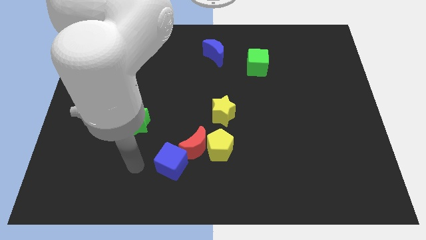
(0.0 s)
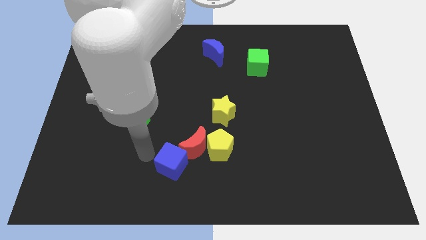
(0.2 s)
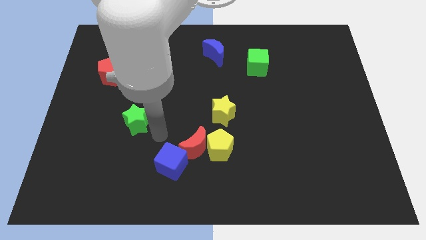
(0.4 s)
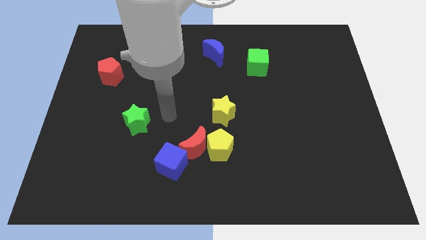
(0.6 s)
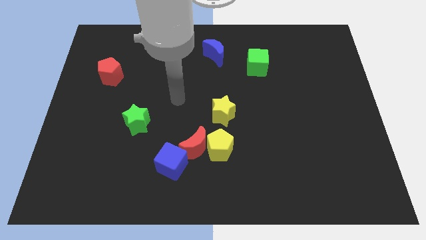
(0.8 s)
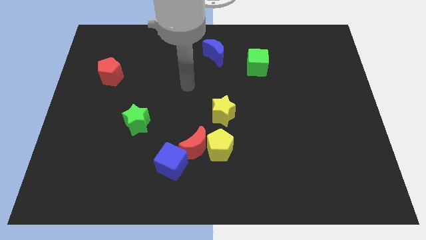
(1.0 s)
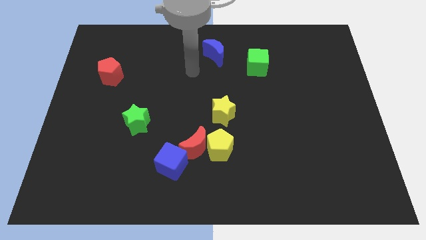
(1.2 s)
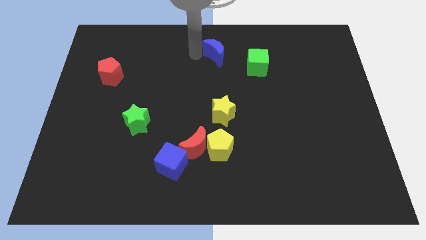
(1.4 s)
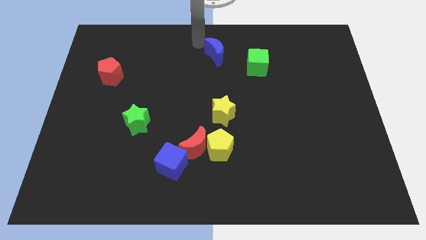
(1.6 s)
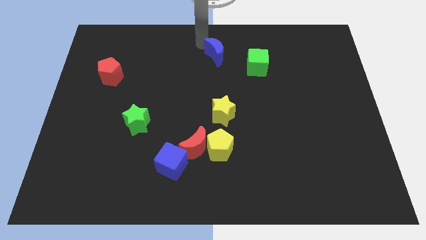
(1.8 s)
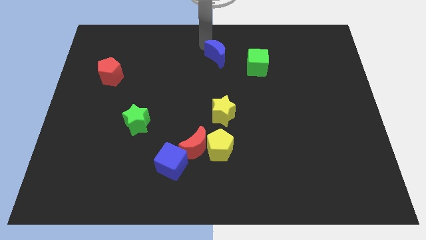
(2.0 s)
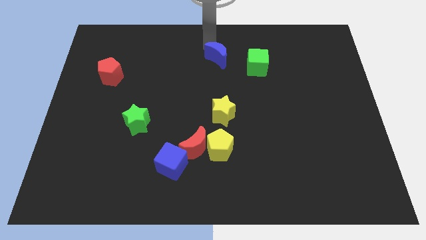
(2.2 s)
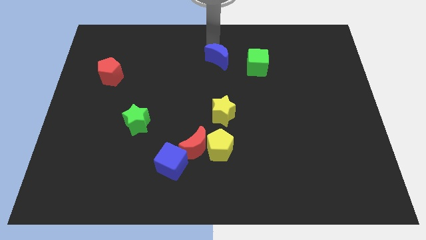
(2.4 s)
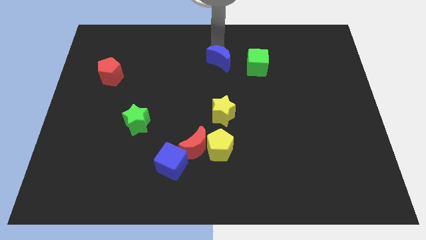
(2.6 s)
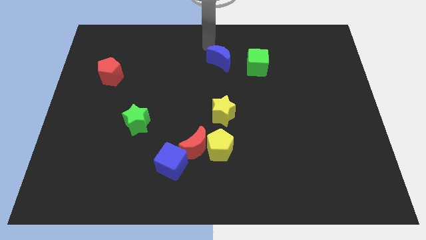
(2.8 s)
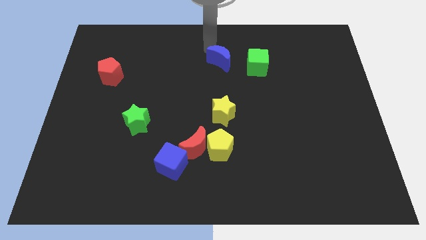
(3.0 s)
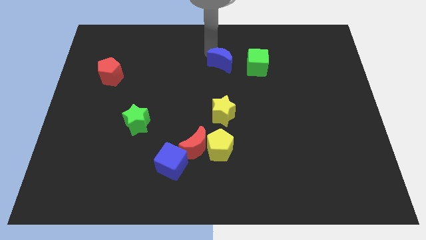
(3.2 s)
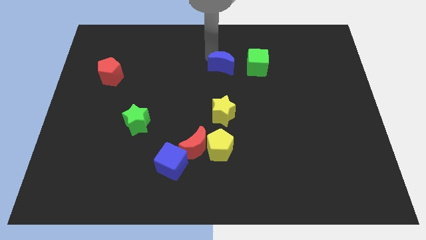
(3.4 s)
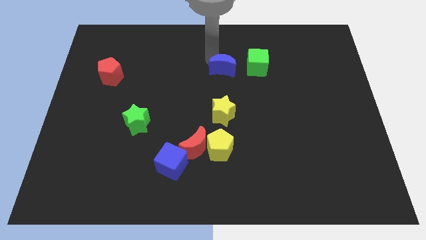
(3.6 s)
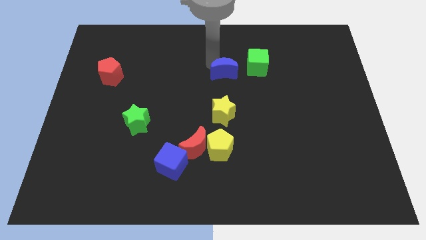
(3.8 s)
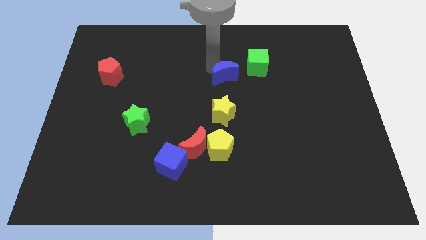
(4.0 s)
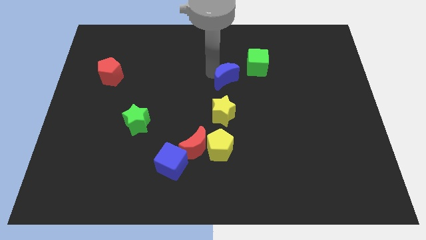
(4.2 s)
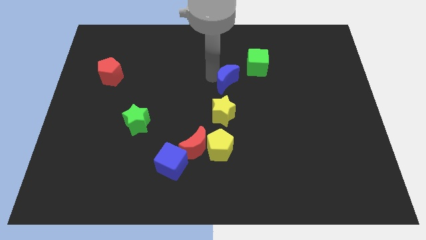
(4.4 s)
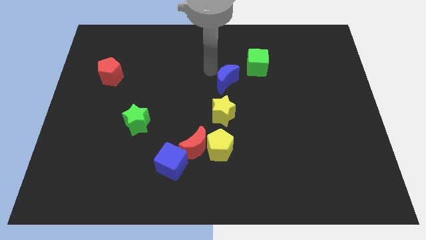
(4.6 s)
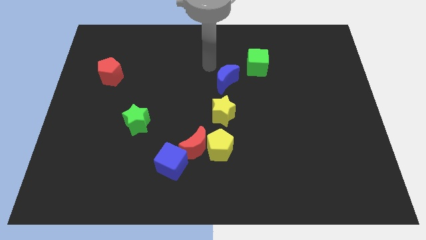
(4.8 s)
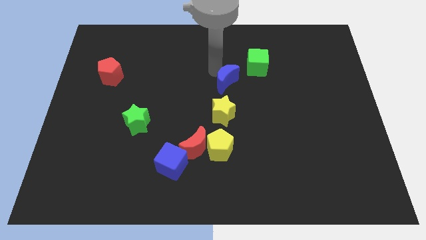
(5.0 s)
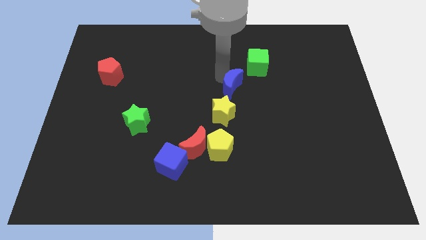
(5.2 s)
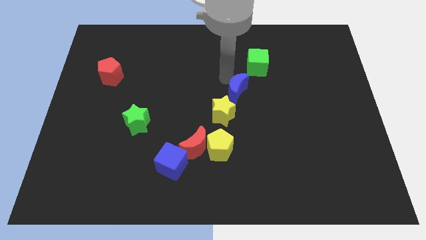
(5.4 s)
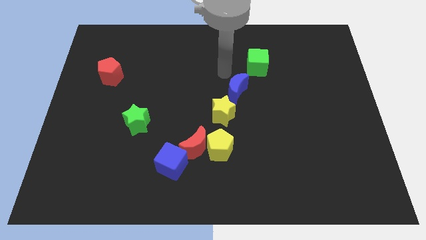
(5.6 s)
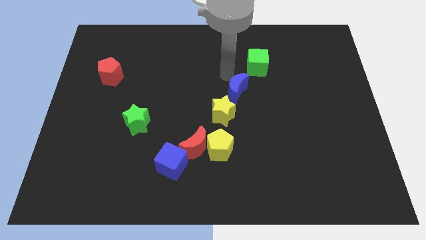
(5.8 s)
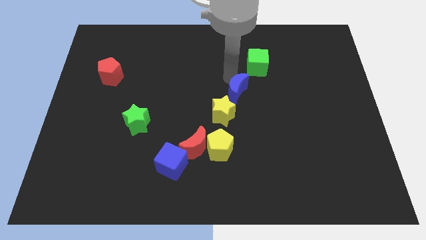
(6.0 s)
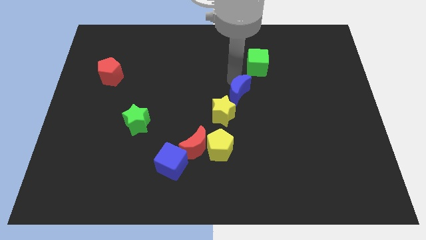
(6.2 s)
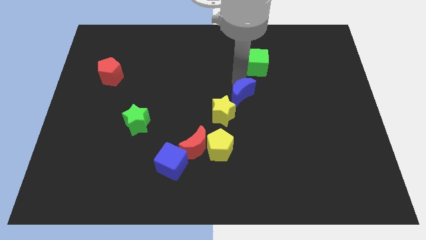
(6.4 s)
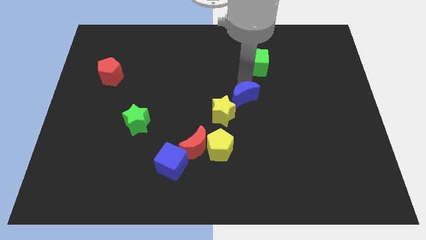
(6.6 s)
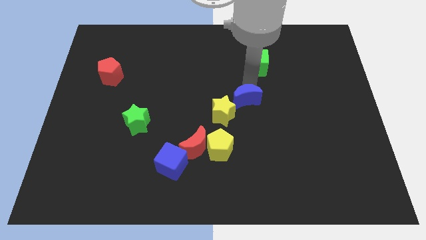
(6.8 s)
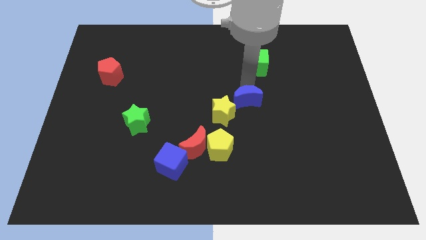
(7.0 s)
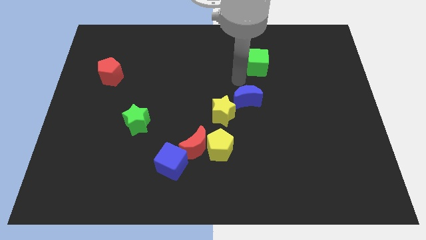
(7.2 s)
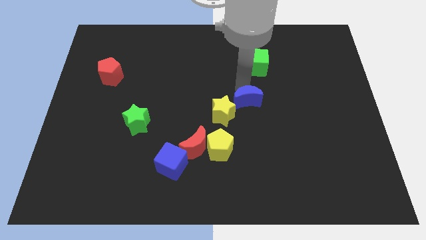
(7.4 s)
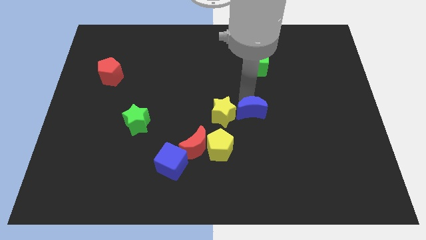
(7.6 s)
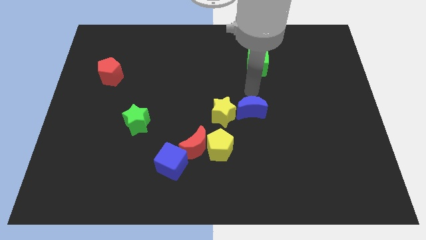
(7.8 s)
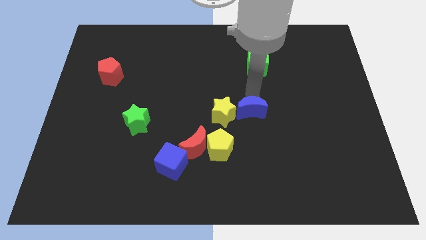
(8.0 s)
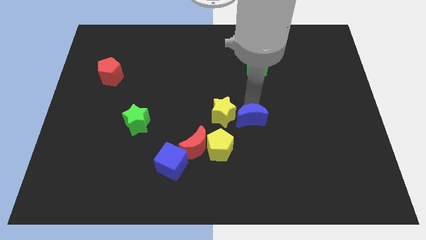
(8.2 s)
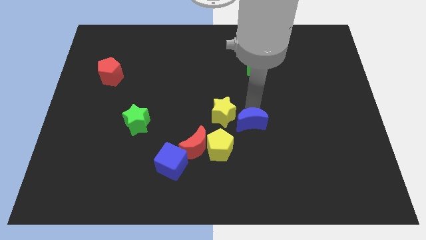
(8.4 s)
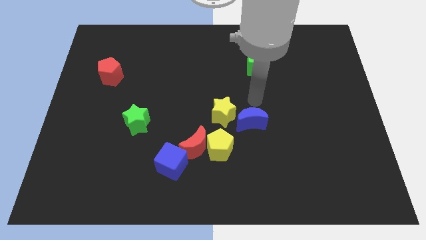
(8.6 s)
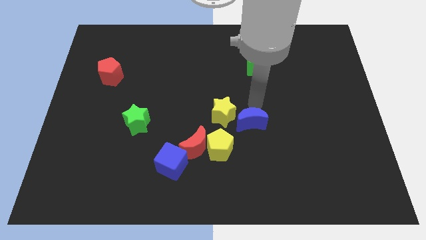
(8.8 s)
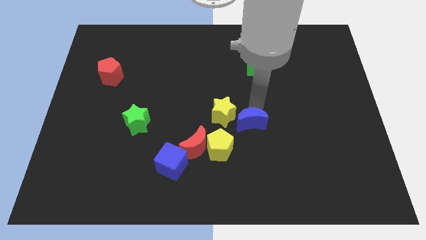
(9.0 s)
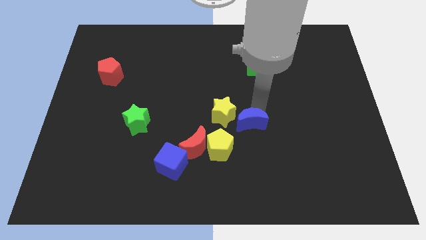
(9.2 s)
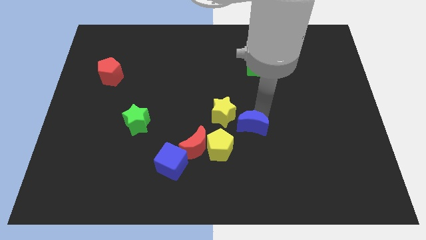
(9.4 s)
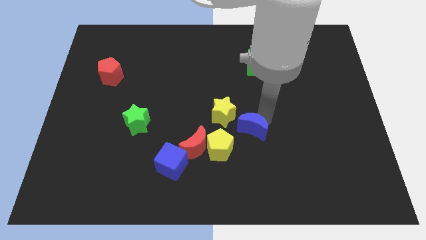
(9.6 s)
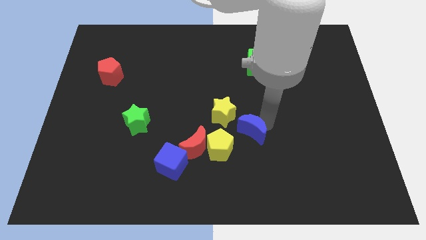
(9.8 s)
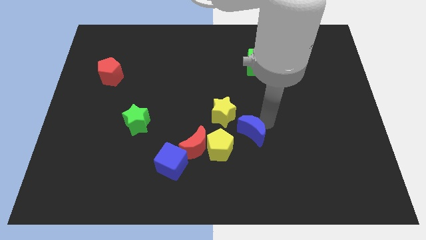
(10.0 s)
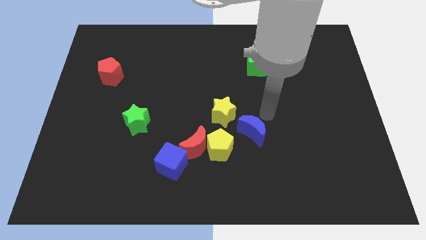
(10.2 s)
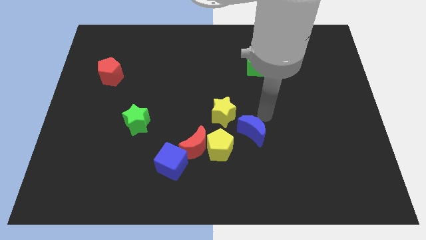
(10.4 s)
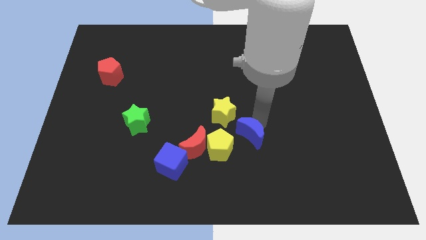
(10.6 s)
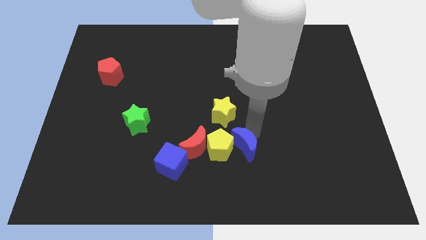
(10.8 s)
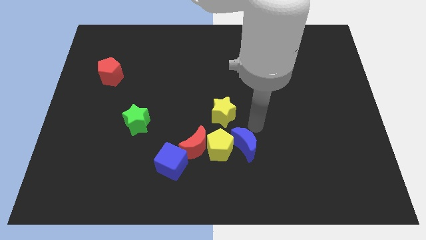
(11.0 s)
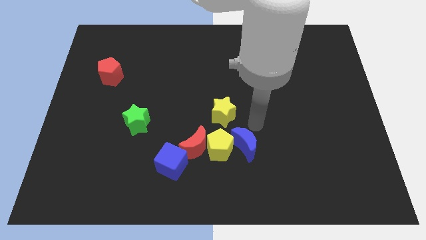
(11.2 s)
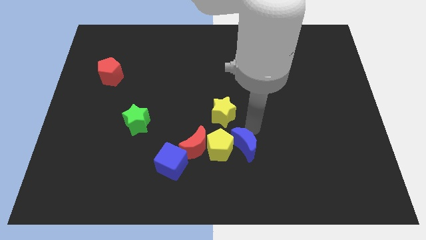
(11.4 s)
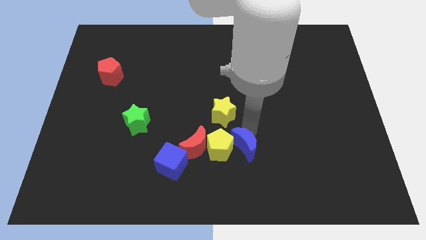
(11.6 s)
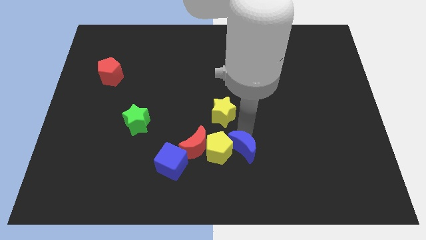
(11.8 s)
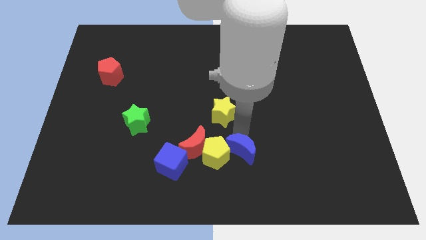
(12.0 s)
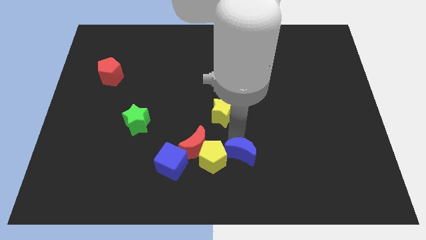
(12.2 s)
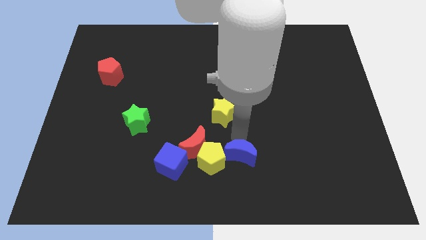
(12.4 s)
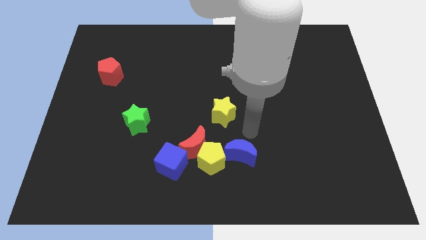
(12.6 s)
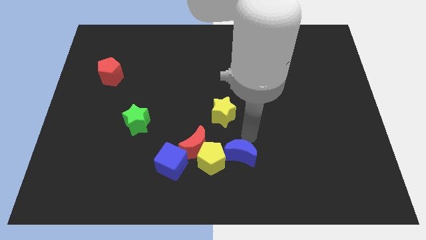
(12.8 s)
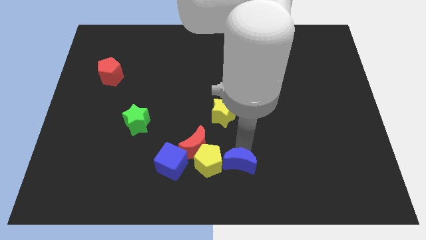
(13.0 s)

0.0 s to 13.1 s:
move the blue moon to the bottom side

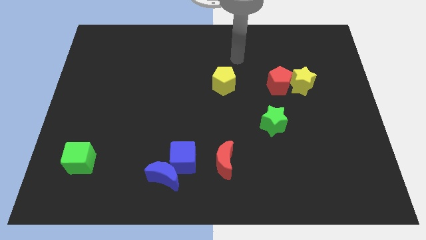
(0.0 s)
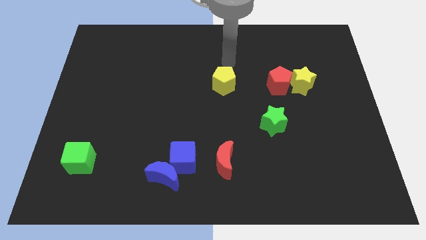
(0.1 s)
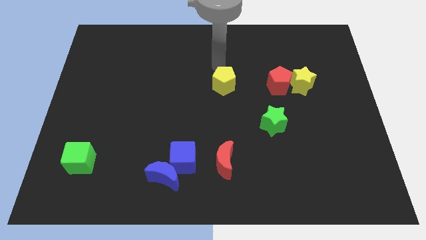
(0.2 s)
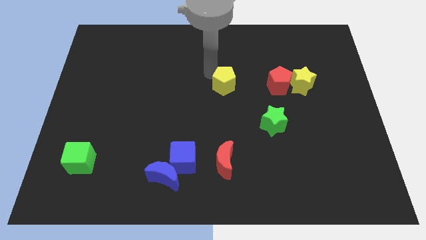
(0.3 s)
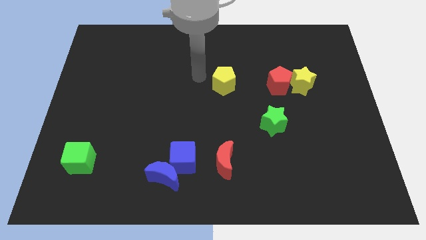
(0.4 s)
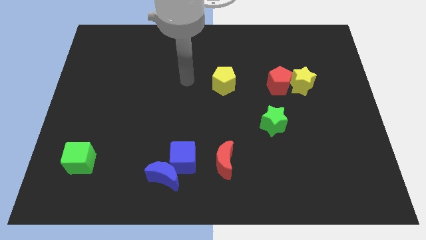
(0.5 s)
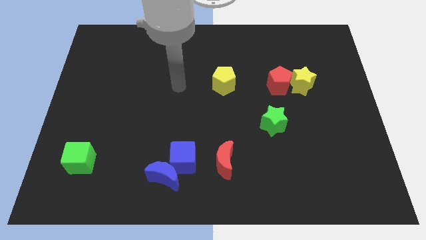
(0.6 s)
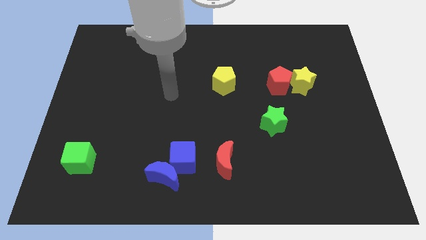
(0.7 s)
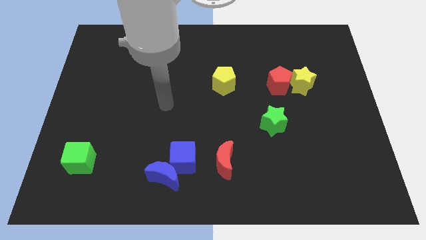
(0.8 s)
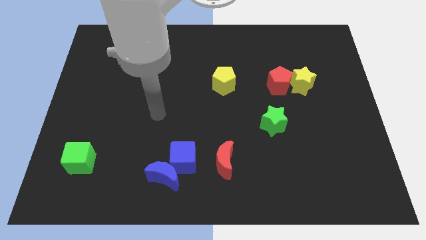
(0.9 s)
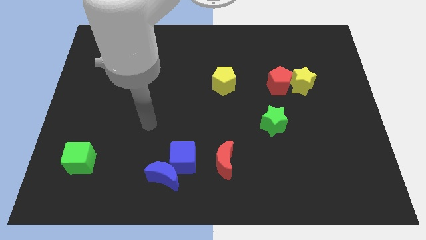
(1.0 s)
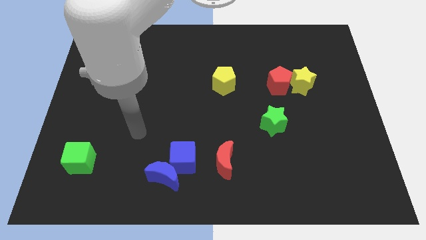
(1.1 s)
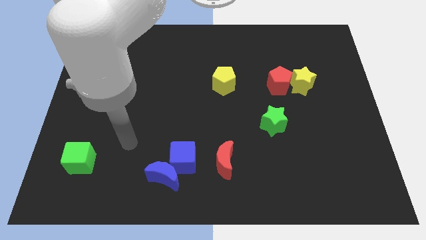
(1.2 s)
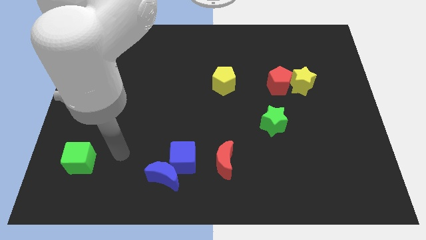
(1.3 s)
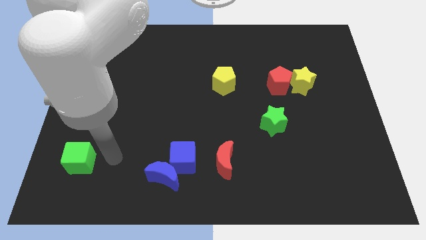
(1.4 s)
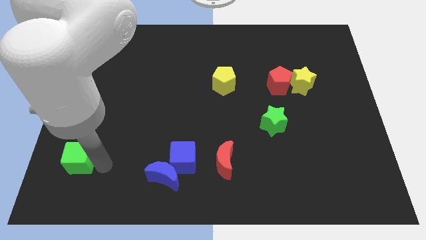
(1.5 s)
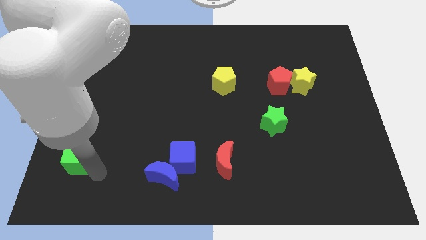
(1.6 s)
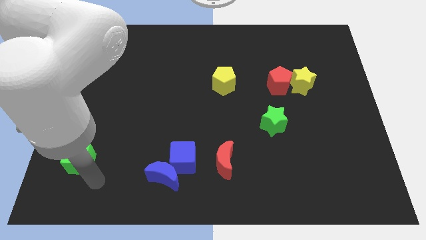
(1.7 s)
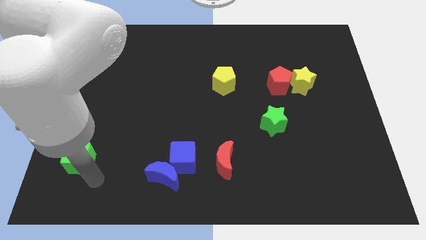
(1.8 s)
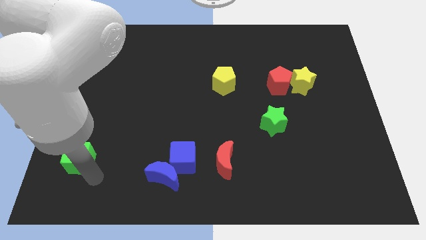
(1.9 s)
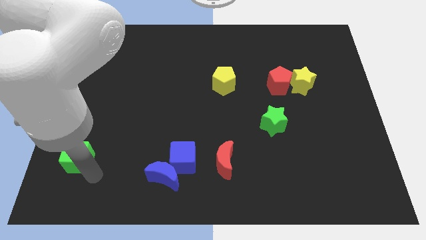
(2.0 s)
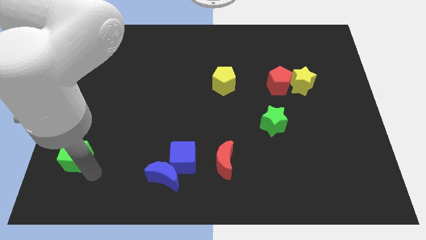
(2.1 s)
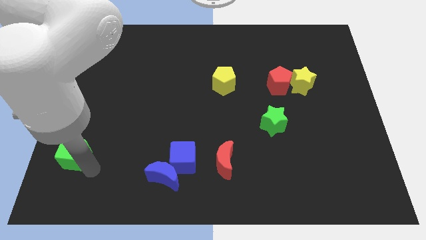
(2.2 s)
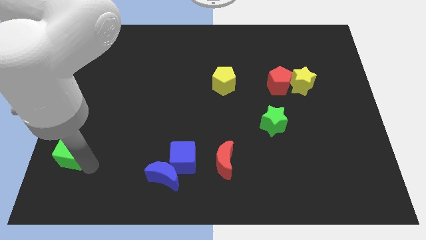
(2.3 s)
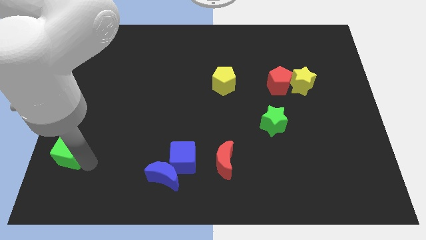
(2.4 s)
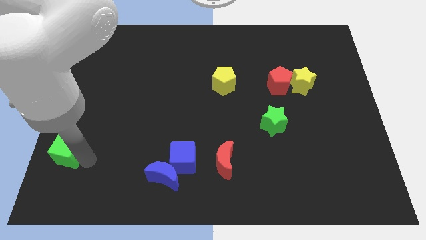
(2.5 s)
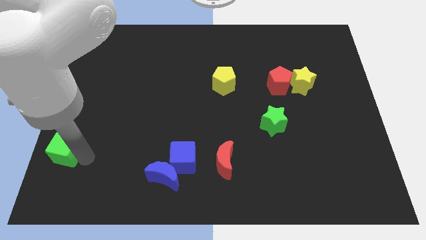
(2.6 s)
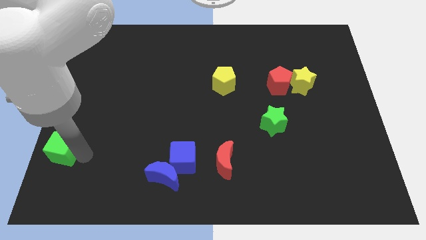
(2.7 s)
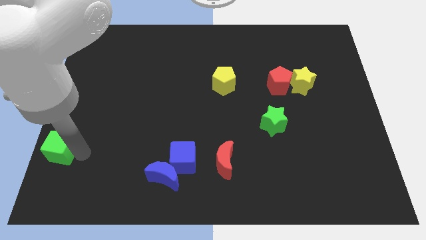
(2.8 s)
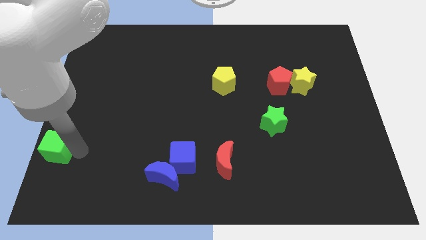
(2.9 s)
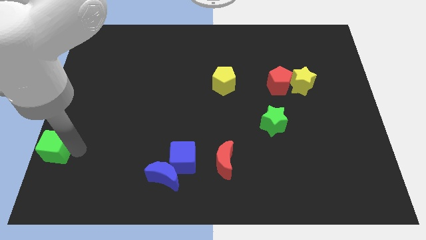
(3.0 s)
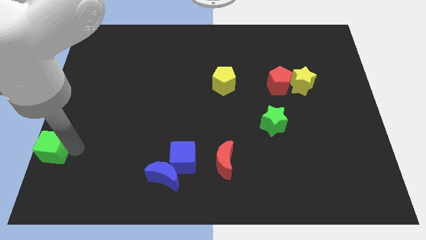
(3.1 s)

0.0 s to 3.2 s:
put the green cube to the left side of the board
